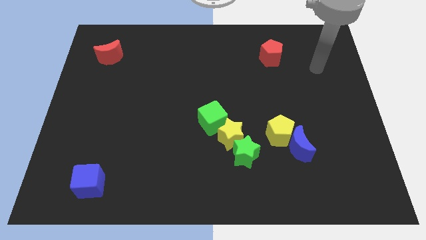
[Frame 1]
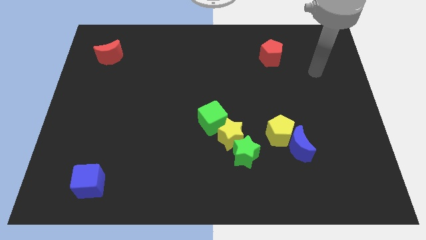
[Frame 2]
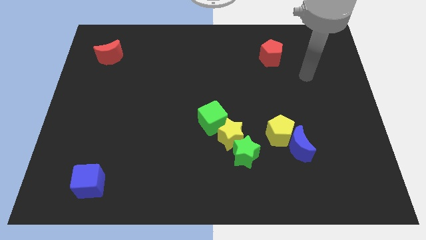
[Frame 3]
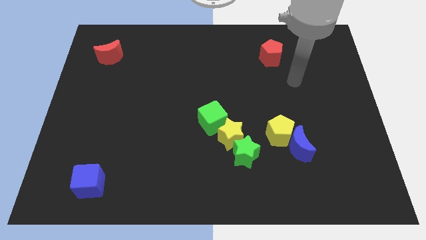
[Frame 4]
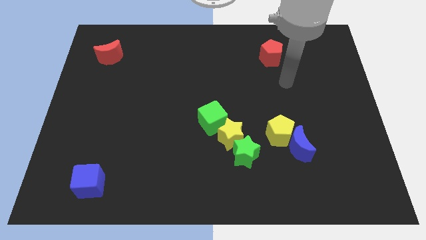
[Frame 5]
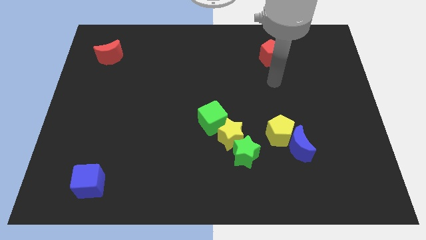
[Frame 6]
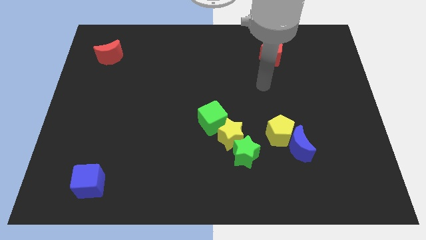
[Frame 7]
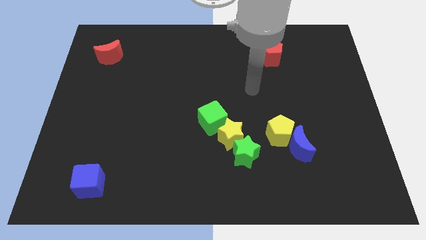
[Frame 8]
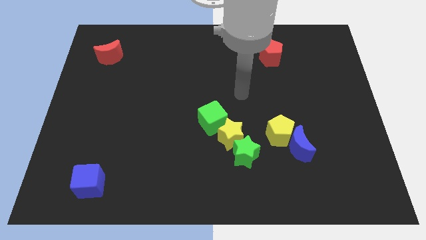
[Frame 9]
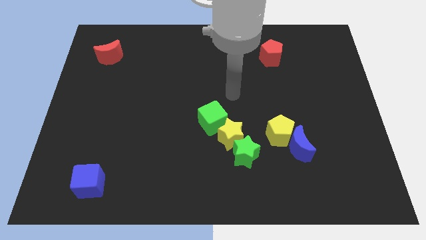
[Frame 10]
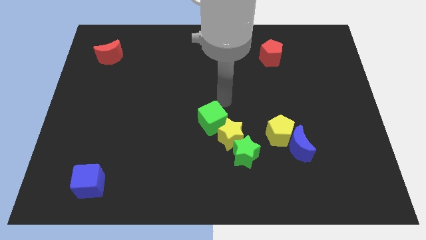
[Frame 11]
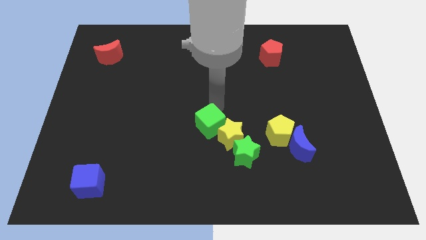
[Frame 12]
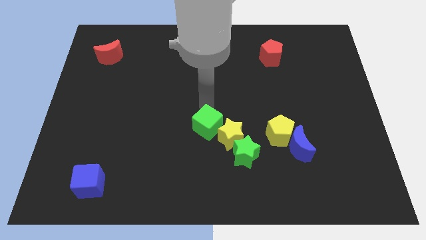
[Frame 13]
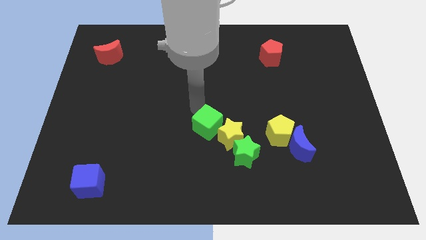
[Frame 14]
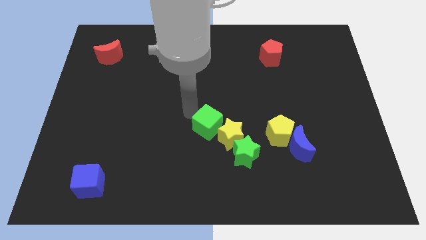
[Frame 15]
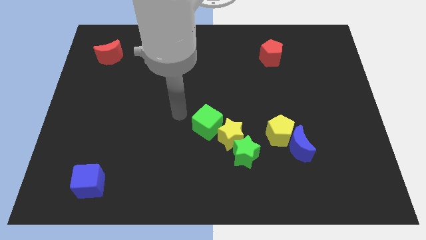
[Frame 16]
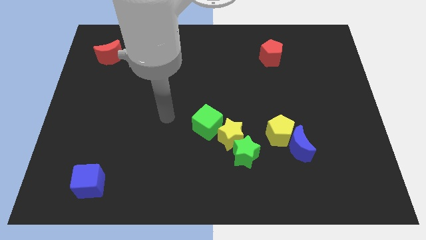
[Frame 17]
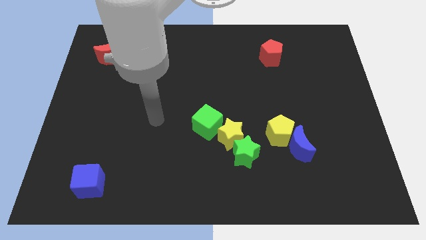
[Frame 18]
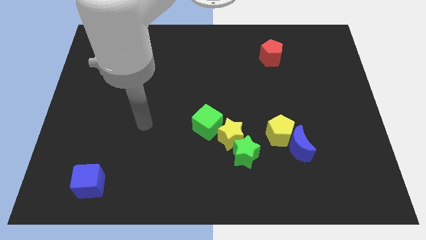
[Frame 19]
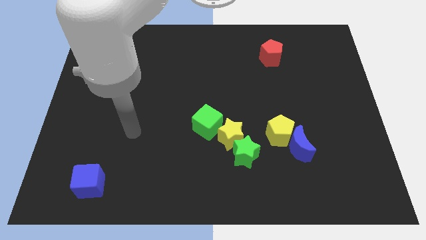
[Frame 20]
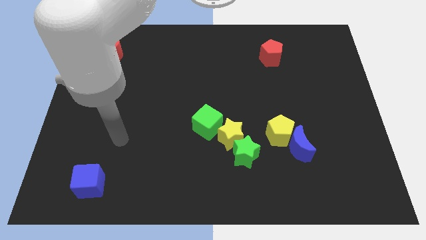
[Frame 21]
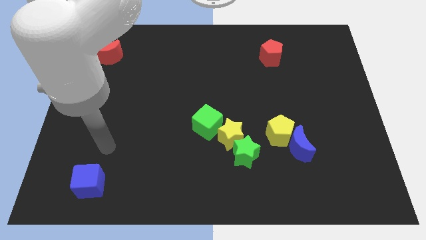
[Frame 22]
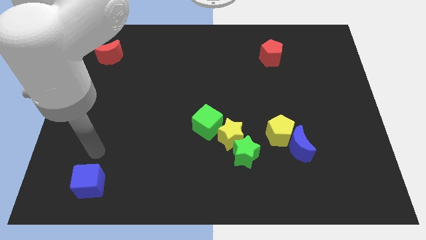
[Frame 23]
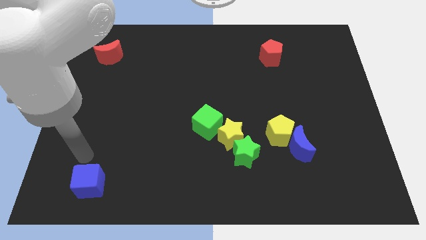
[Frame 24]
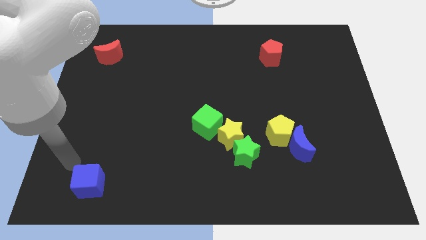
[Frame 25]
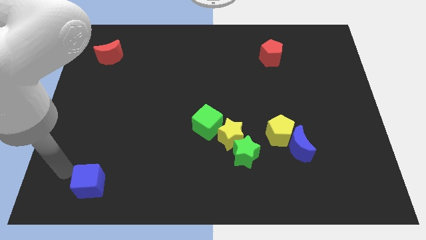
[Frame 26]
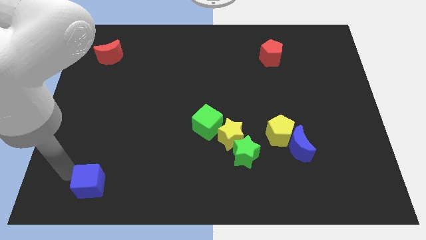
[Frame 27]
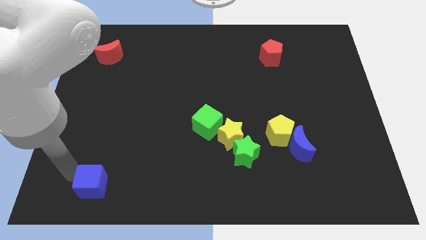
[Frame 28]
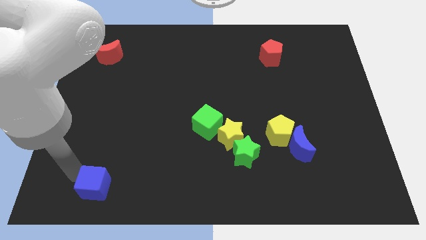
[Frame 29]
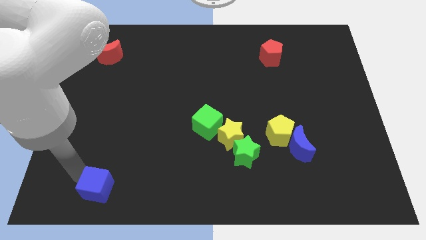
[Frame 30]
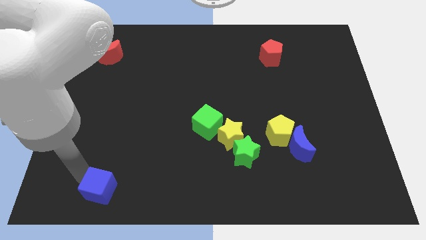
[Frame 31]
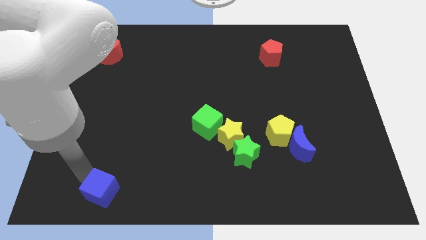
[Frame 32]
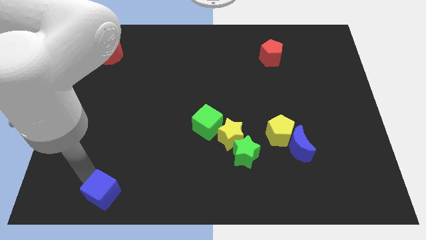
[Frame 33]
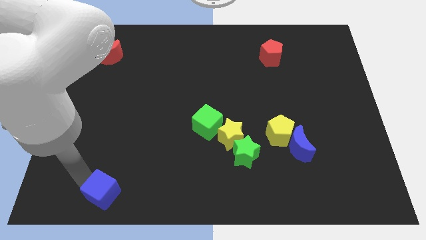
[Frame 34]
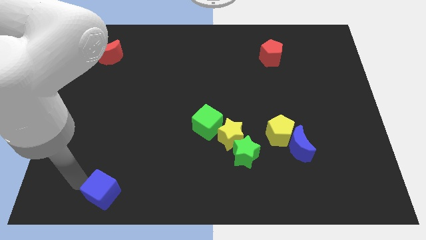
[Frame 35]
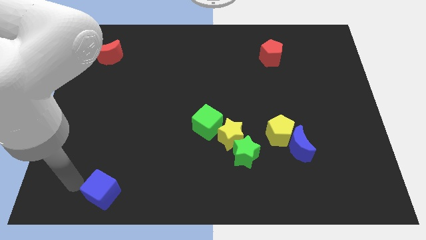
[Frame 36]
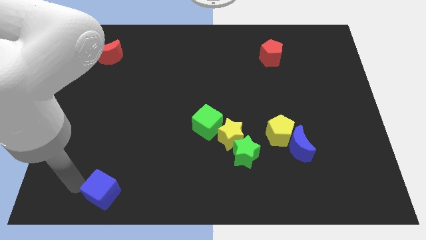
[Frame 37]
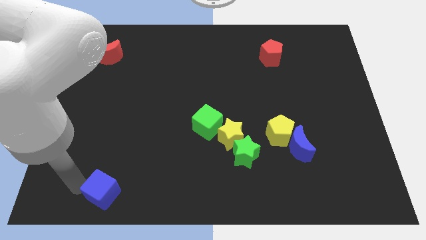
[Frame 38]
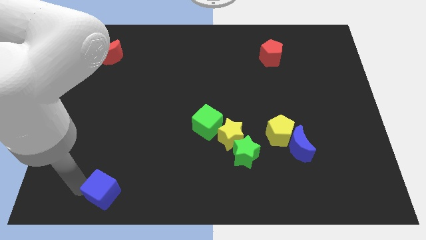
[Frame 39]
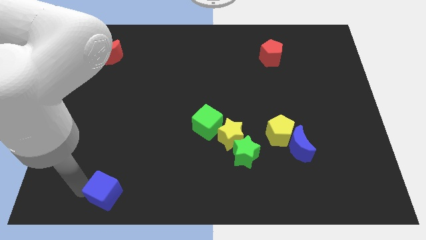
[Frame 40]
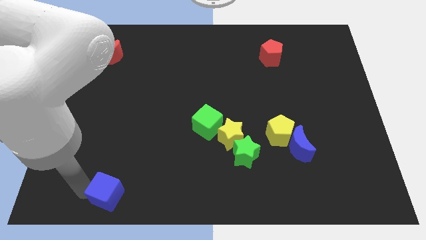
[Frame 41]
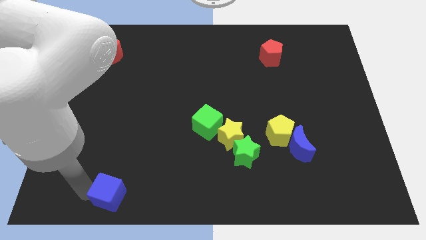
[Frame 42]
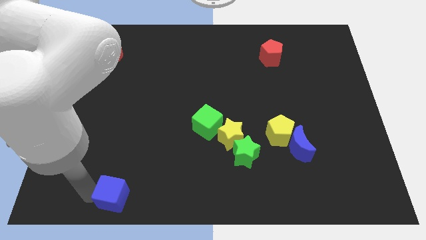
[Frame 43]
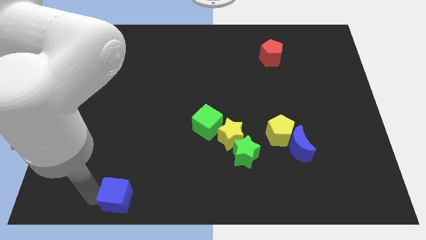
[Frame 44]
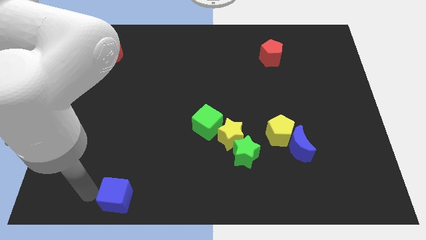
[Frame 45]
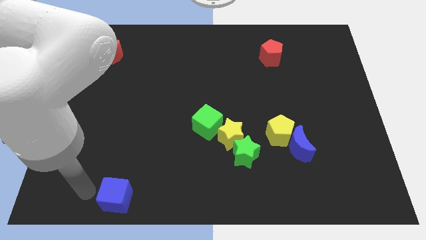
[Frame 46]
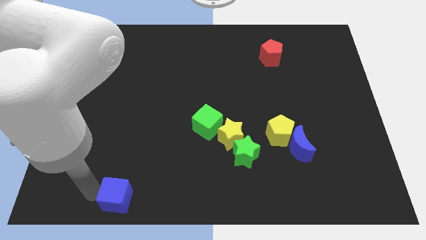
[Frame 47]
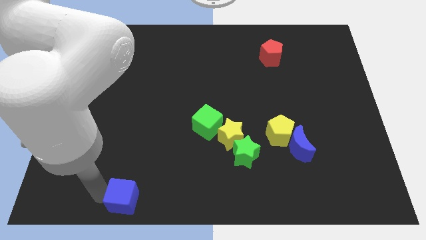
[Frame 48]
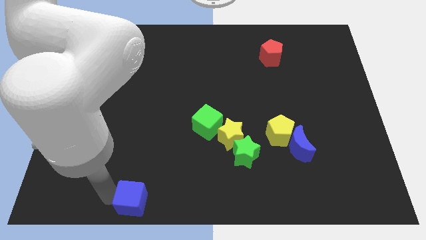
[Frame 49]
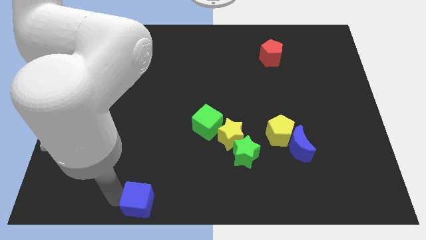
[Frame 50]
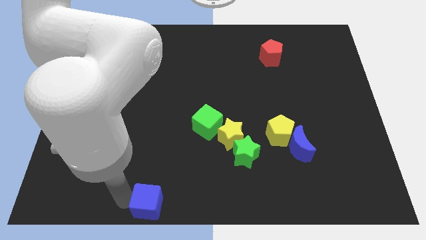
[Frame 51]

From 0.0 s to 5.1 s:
slide the blue cube to the bottom side

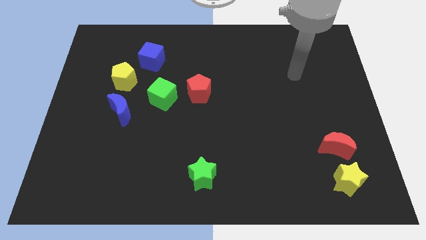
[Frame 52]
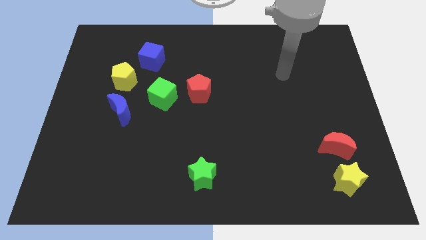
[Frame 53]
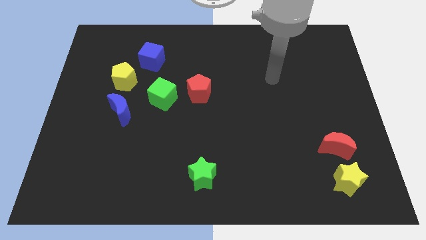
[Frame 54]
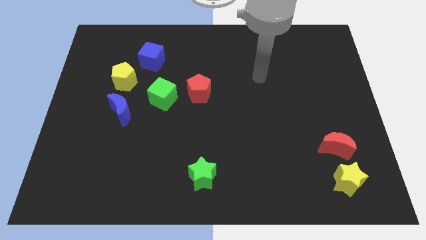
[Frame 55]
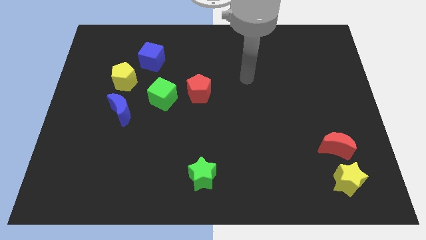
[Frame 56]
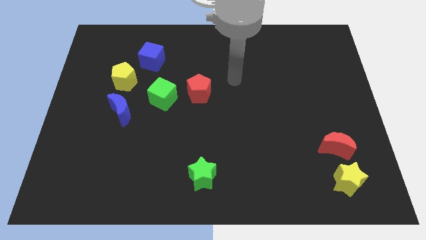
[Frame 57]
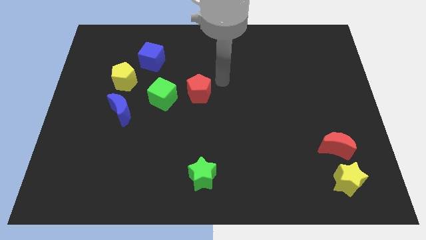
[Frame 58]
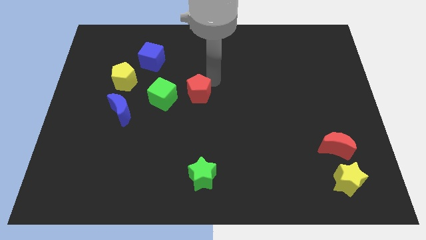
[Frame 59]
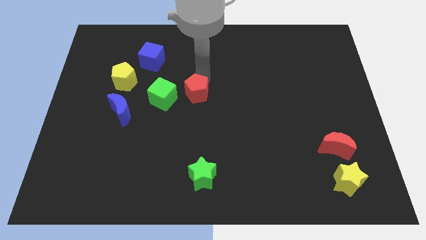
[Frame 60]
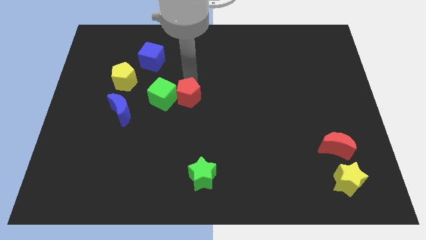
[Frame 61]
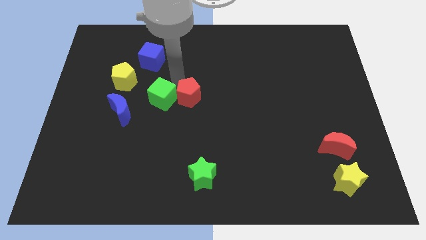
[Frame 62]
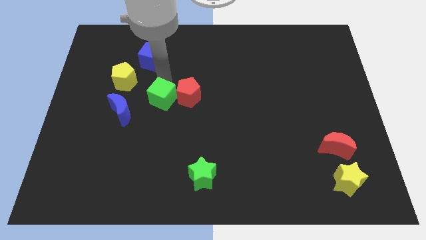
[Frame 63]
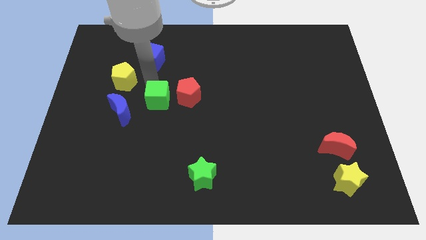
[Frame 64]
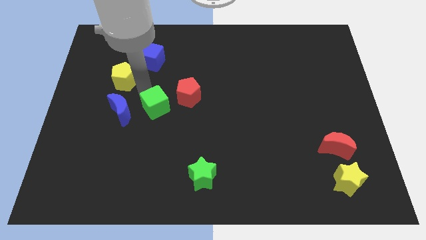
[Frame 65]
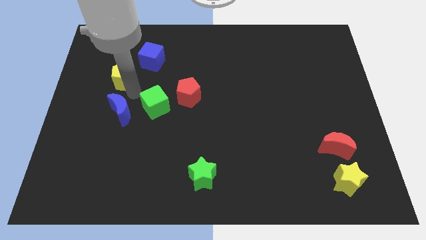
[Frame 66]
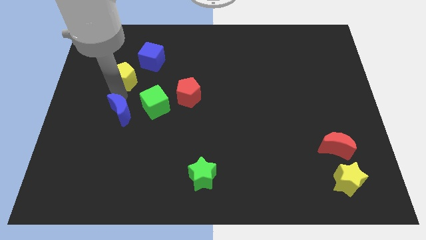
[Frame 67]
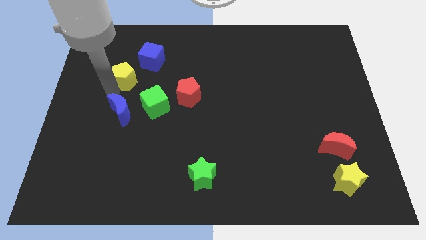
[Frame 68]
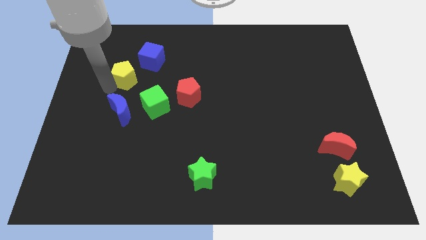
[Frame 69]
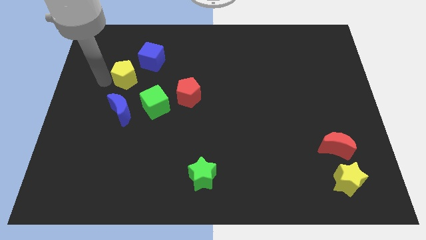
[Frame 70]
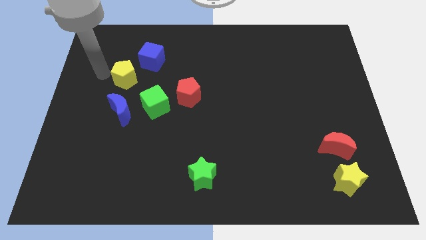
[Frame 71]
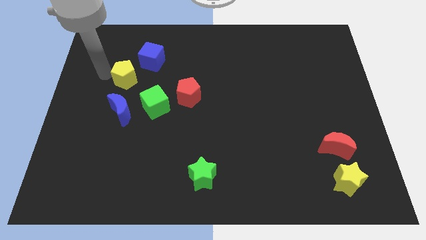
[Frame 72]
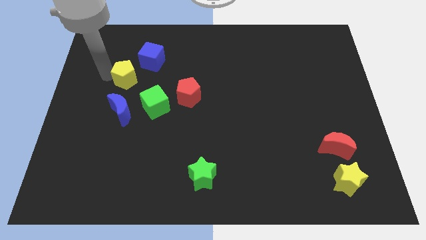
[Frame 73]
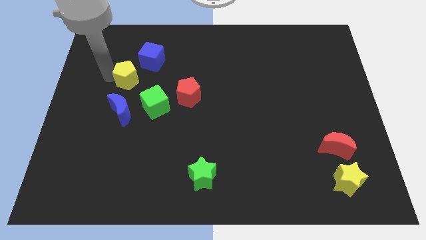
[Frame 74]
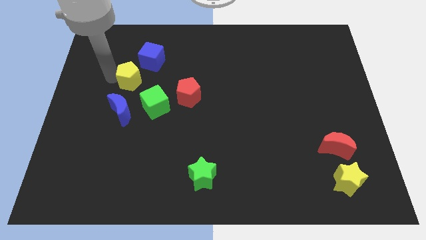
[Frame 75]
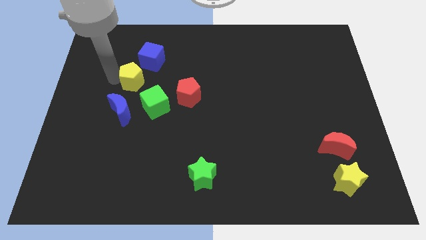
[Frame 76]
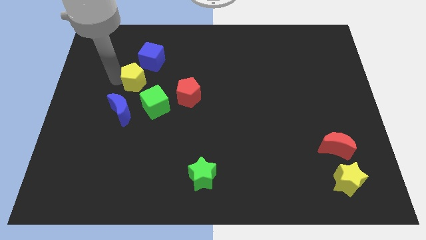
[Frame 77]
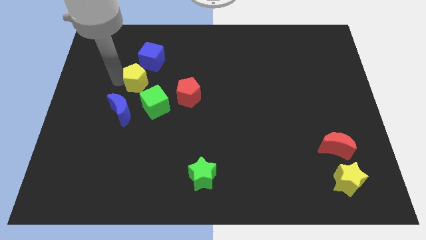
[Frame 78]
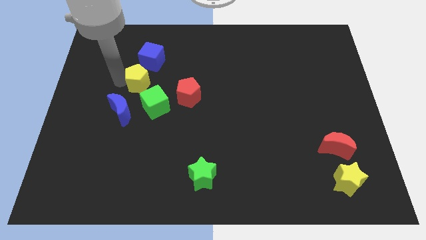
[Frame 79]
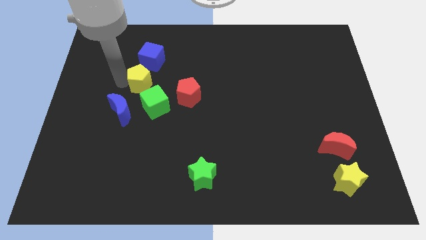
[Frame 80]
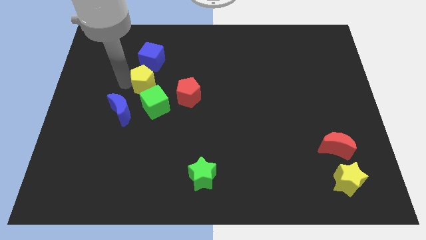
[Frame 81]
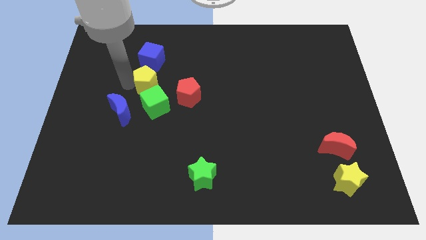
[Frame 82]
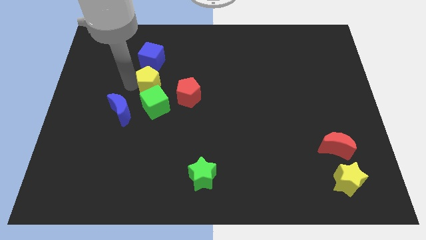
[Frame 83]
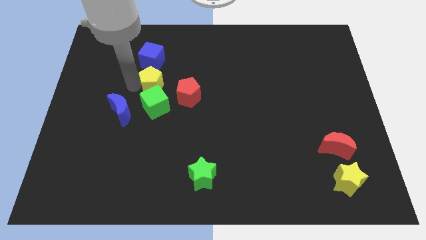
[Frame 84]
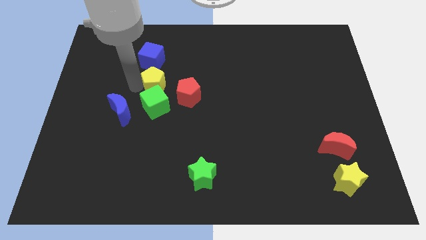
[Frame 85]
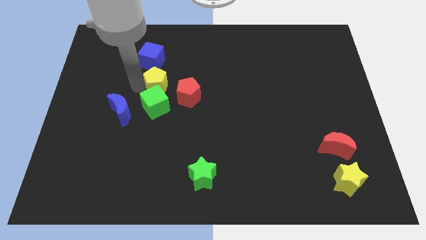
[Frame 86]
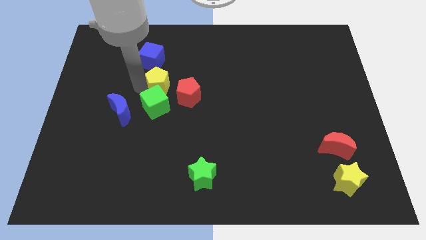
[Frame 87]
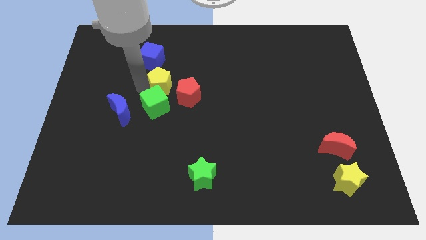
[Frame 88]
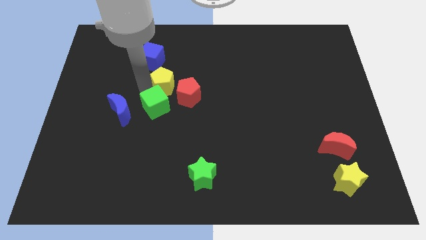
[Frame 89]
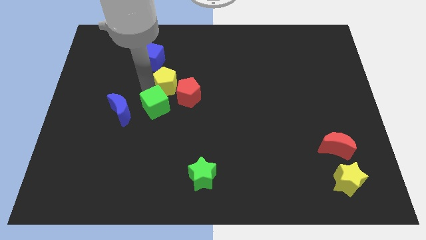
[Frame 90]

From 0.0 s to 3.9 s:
move the yellow pentagon to the center of the board
